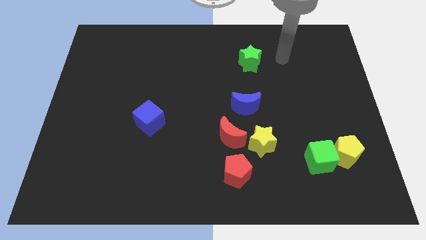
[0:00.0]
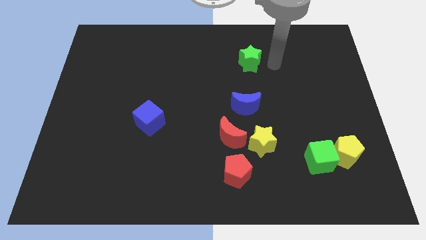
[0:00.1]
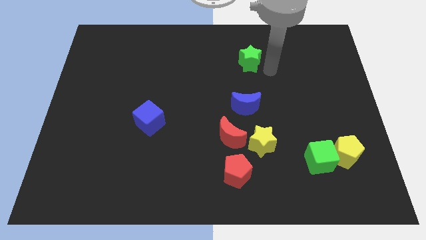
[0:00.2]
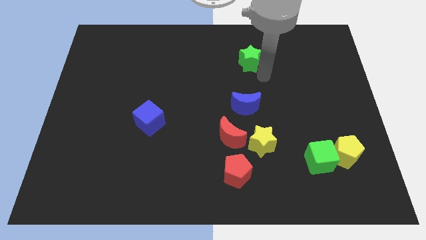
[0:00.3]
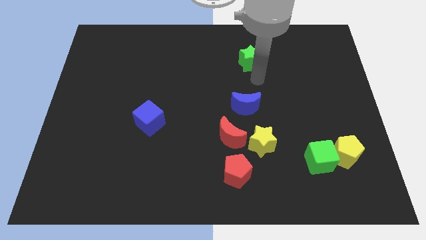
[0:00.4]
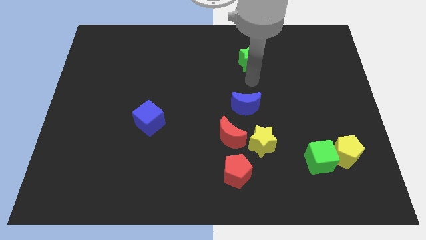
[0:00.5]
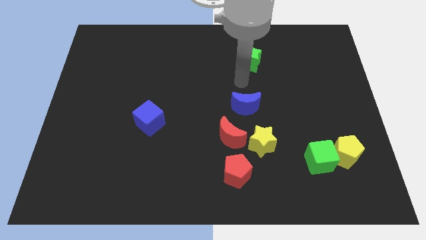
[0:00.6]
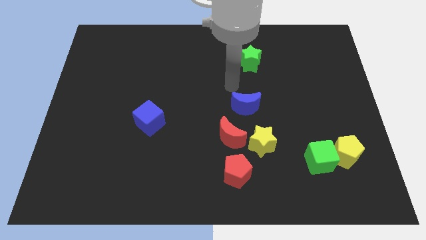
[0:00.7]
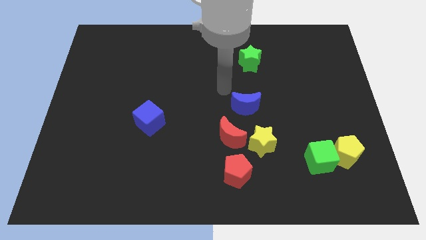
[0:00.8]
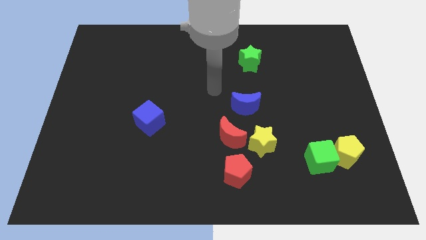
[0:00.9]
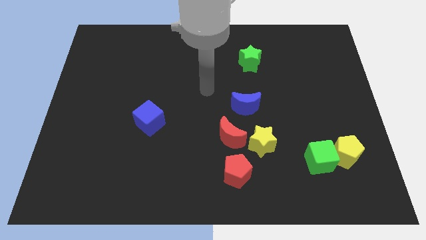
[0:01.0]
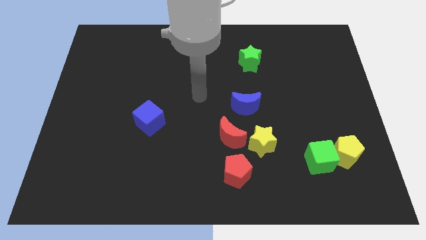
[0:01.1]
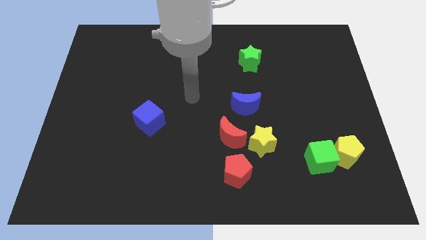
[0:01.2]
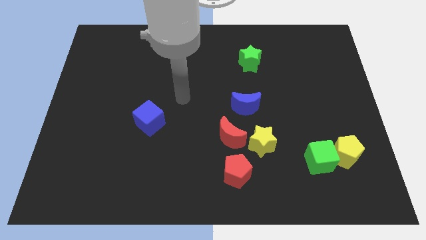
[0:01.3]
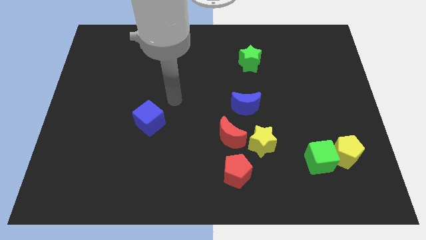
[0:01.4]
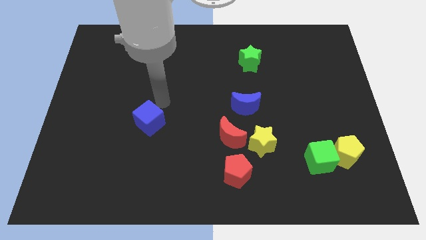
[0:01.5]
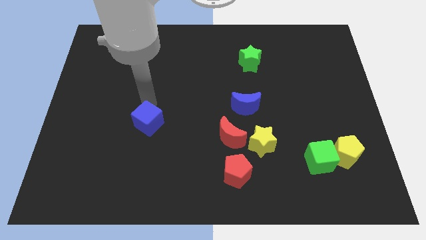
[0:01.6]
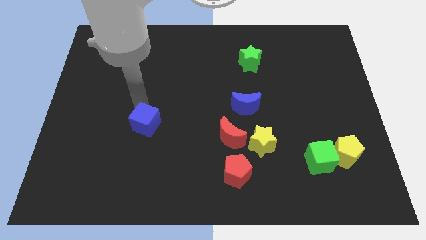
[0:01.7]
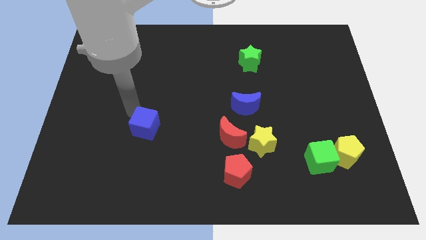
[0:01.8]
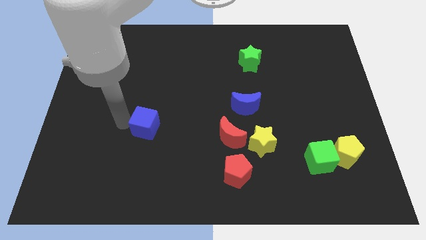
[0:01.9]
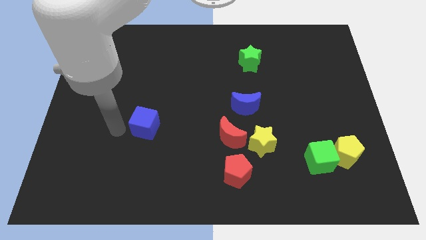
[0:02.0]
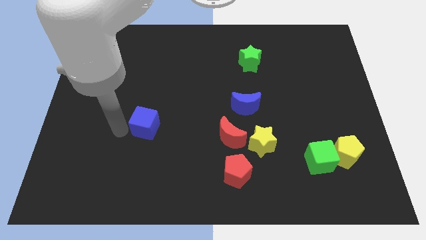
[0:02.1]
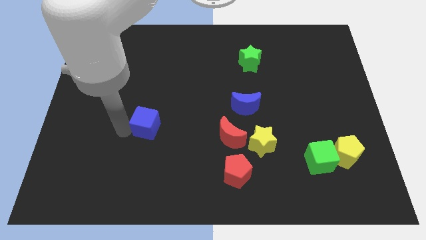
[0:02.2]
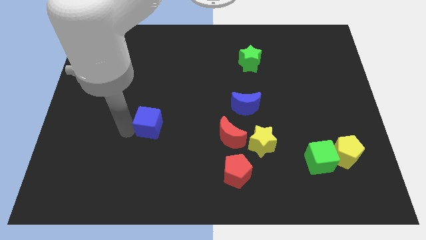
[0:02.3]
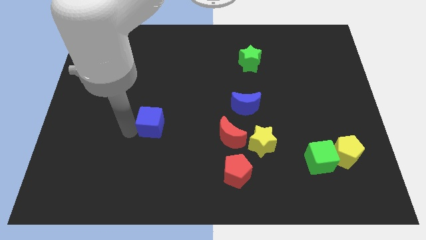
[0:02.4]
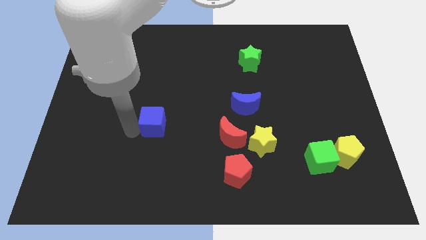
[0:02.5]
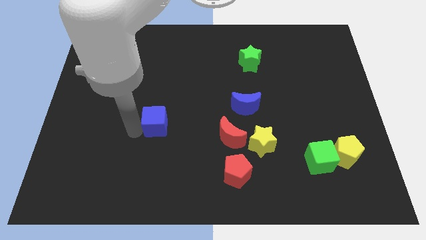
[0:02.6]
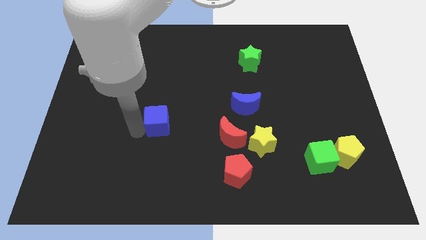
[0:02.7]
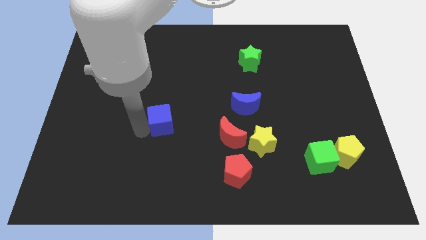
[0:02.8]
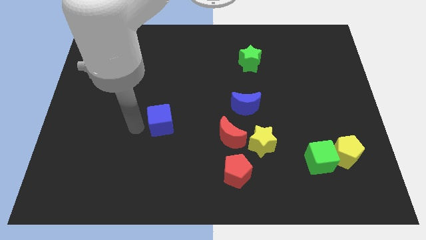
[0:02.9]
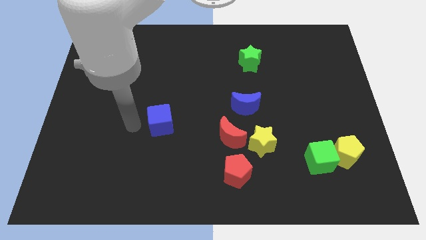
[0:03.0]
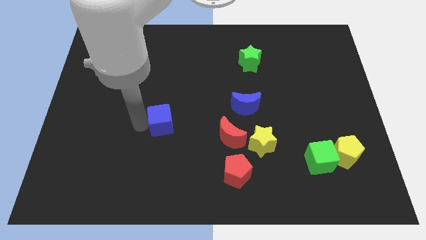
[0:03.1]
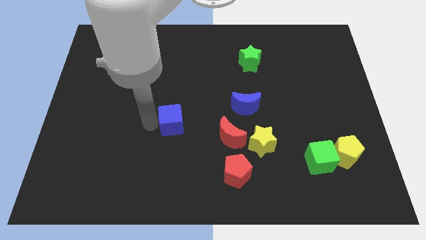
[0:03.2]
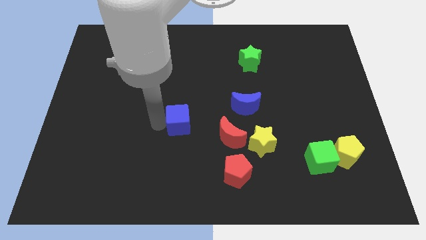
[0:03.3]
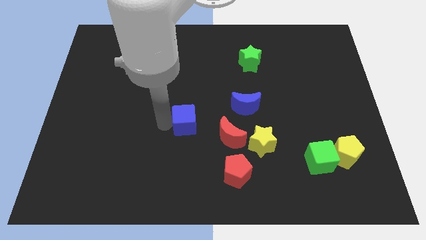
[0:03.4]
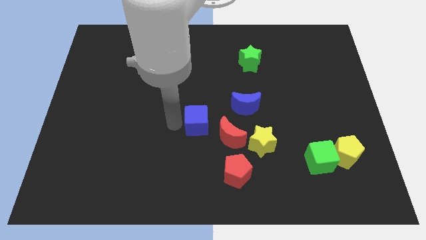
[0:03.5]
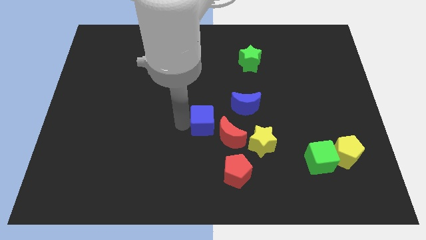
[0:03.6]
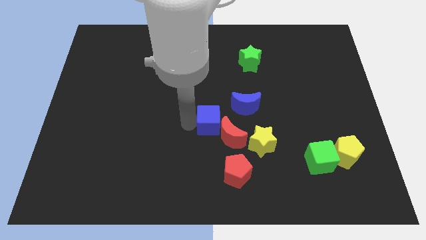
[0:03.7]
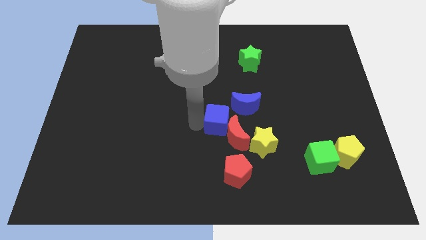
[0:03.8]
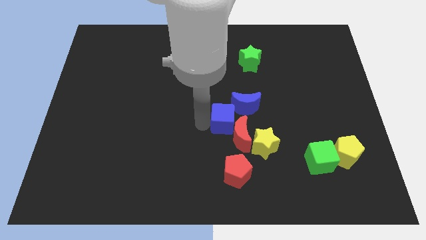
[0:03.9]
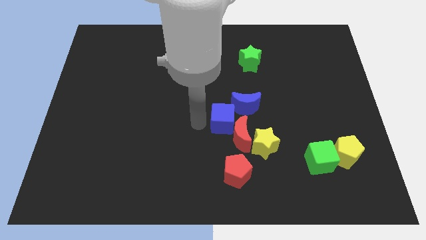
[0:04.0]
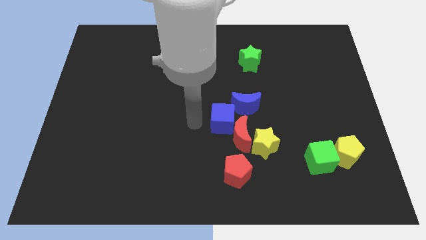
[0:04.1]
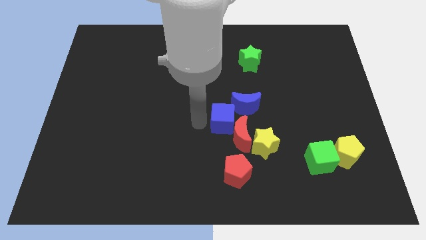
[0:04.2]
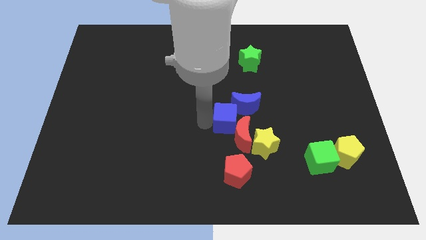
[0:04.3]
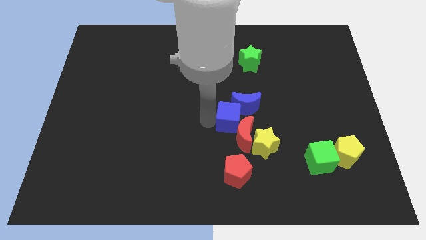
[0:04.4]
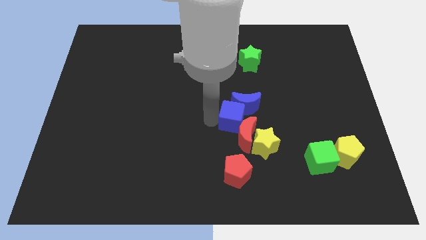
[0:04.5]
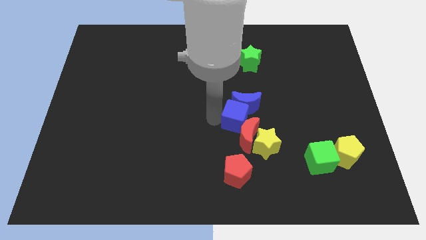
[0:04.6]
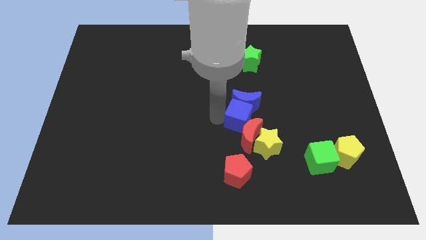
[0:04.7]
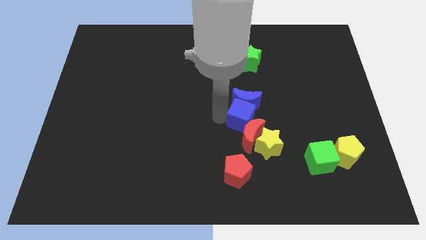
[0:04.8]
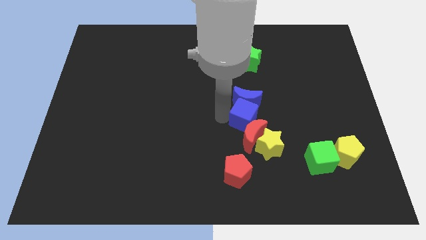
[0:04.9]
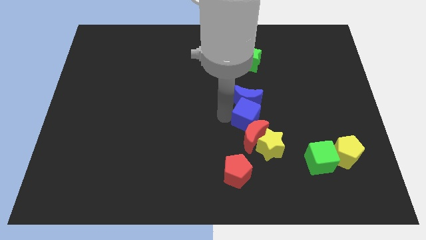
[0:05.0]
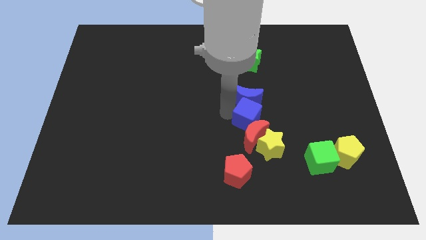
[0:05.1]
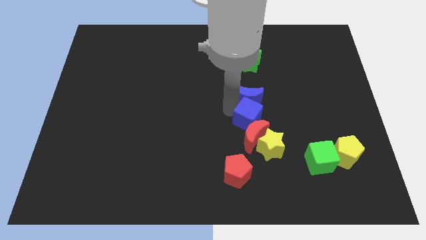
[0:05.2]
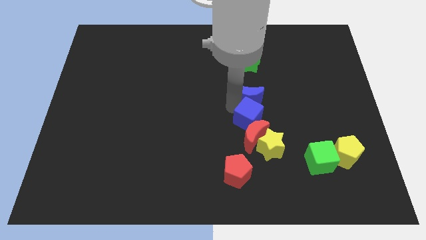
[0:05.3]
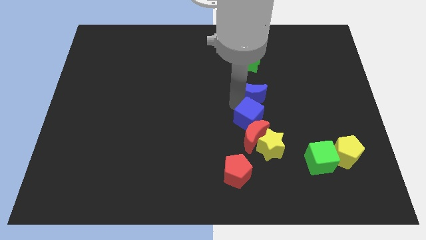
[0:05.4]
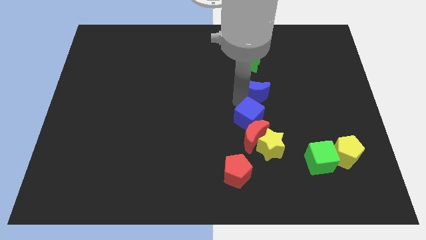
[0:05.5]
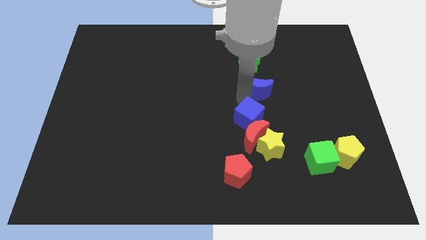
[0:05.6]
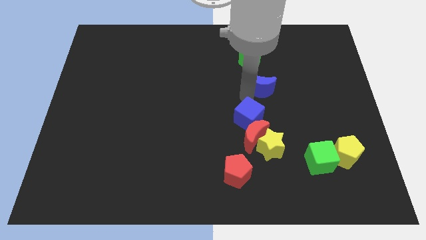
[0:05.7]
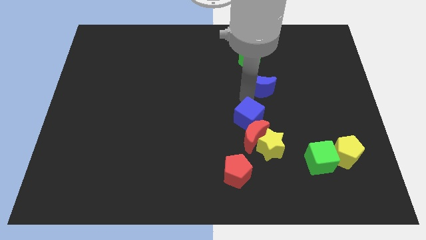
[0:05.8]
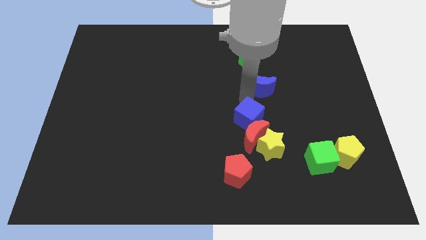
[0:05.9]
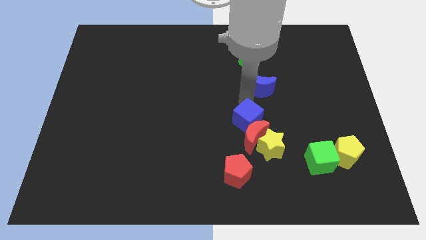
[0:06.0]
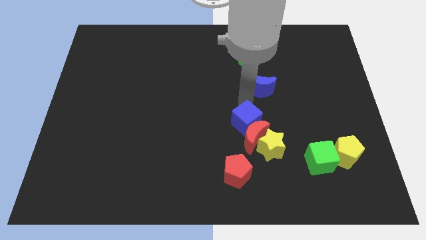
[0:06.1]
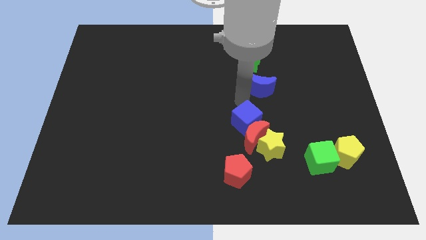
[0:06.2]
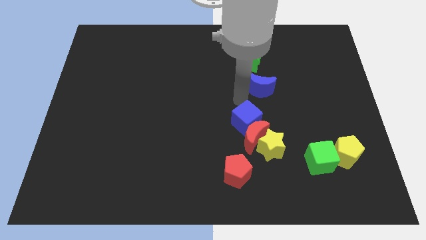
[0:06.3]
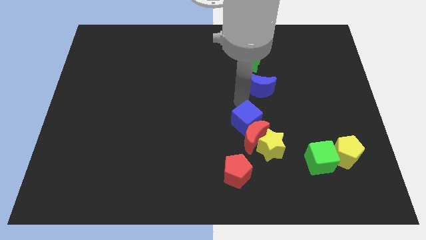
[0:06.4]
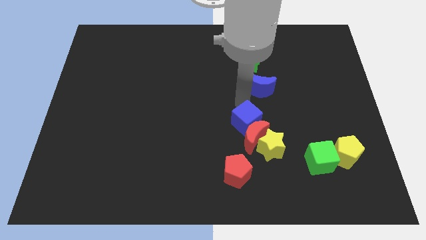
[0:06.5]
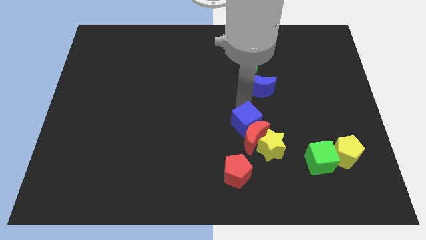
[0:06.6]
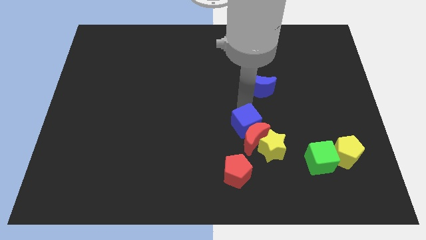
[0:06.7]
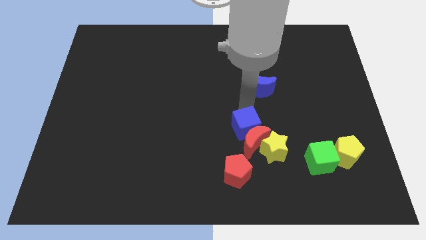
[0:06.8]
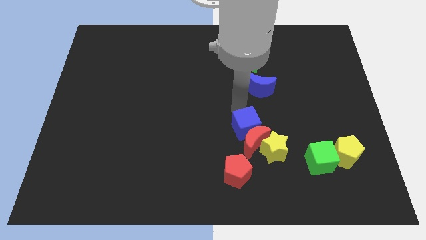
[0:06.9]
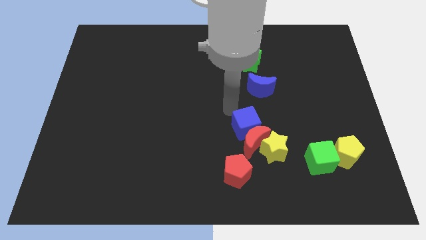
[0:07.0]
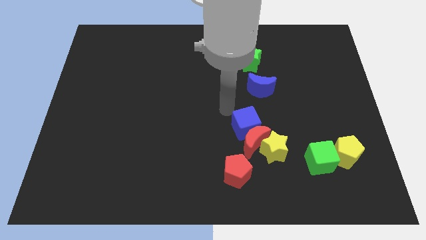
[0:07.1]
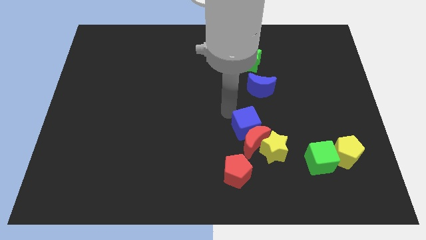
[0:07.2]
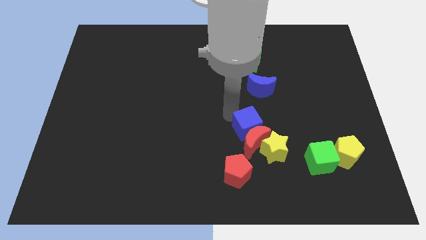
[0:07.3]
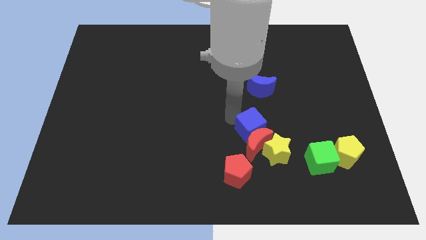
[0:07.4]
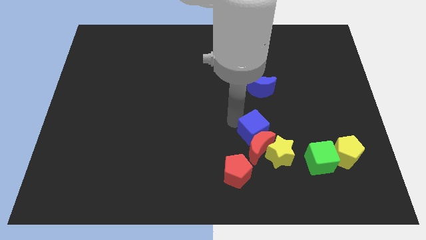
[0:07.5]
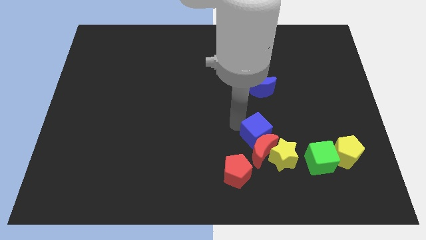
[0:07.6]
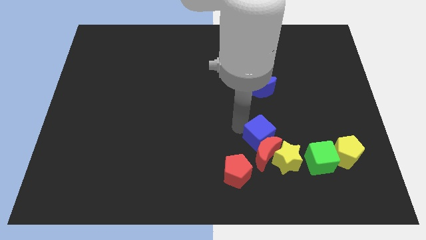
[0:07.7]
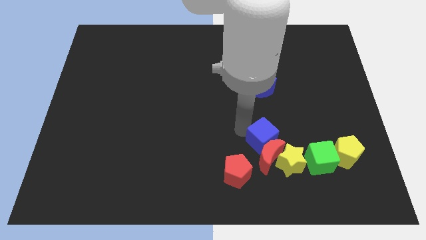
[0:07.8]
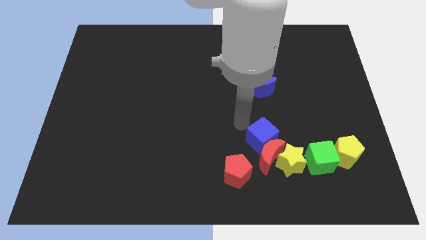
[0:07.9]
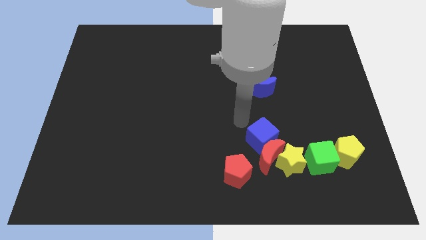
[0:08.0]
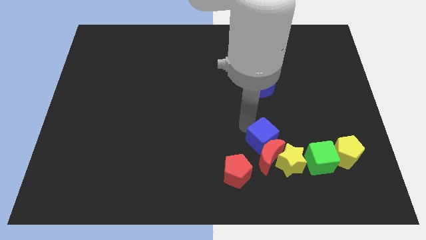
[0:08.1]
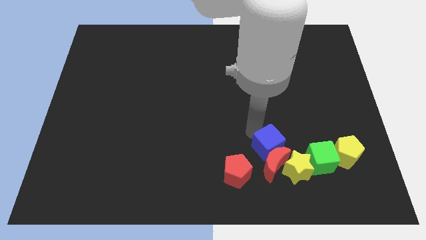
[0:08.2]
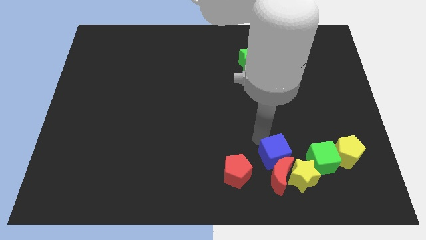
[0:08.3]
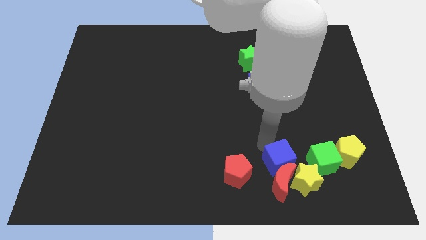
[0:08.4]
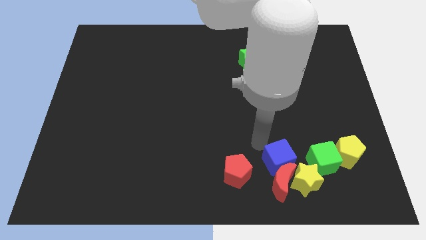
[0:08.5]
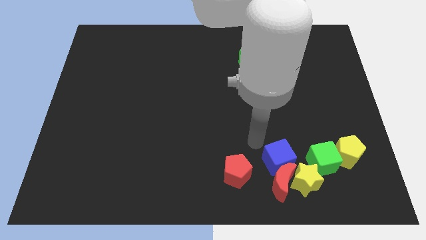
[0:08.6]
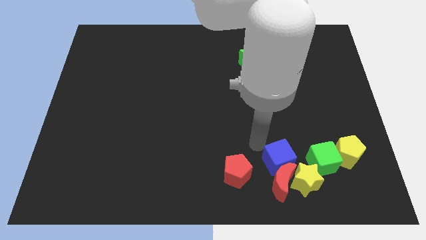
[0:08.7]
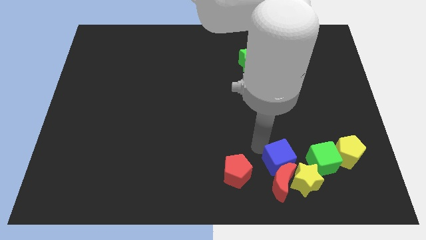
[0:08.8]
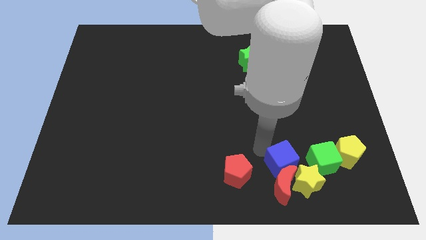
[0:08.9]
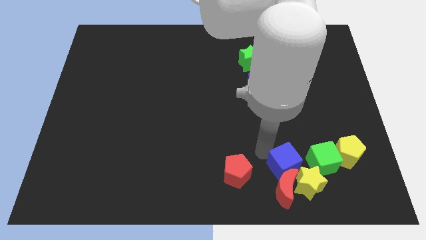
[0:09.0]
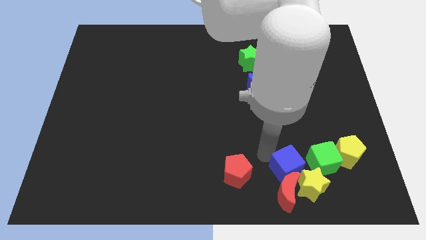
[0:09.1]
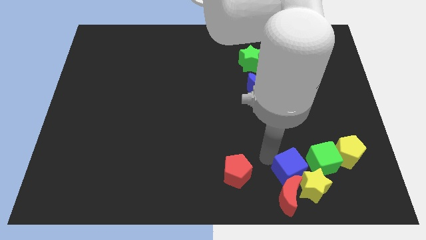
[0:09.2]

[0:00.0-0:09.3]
slide the blue cube to the yellow star
